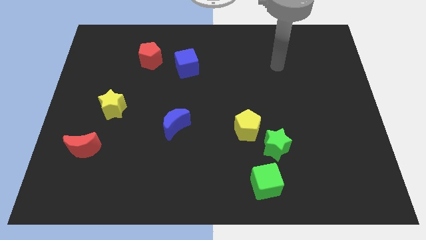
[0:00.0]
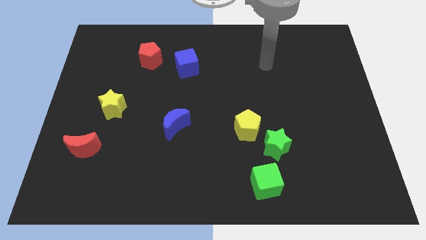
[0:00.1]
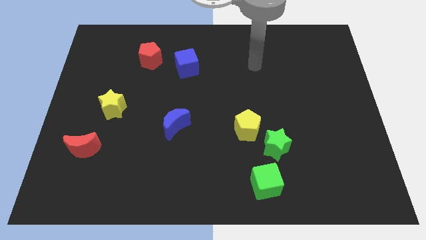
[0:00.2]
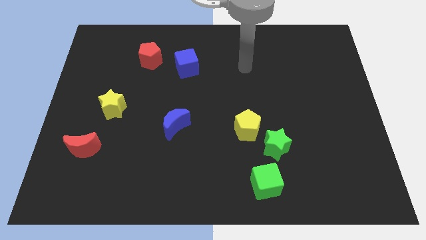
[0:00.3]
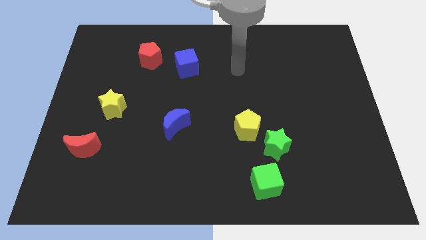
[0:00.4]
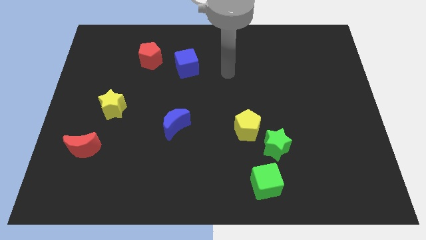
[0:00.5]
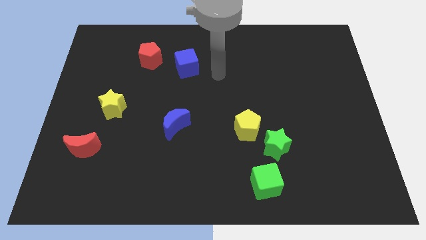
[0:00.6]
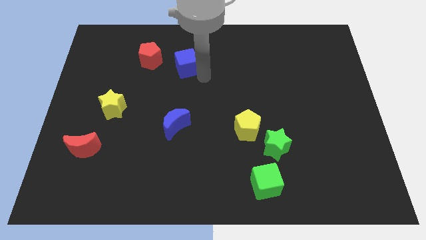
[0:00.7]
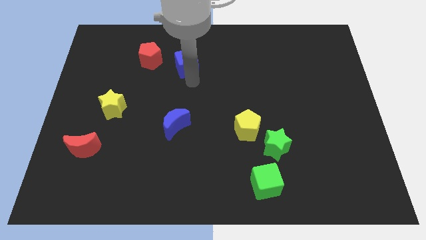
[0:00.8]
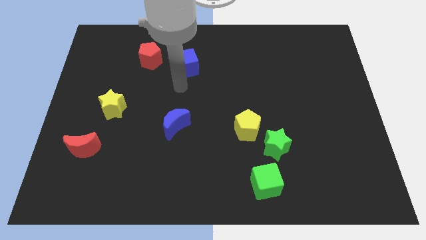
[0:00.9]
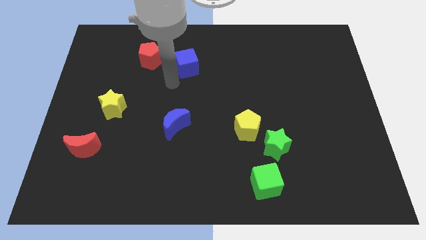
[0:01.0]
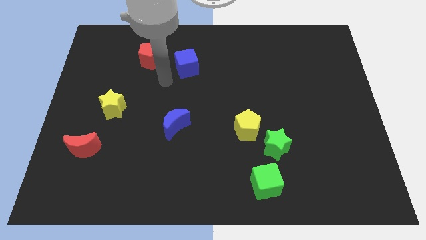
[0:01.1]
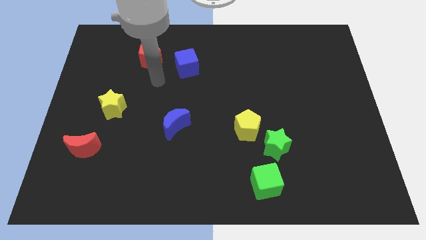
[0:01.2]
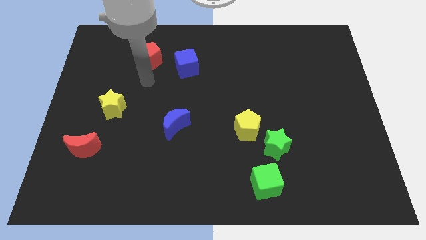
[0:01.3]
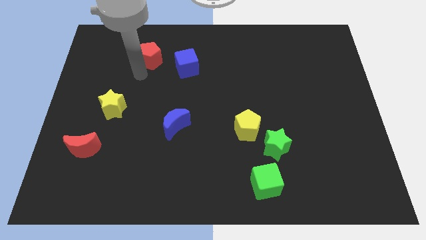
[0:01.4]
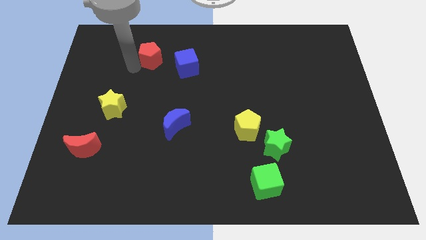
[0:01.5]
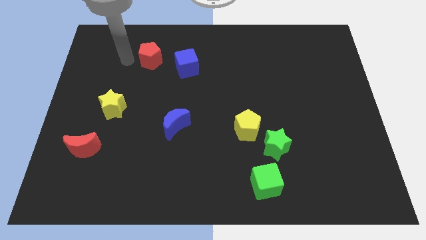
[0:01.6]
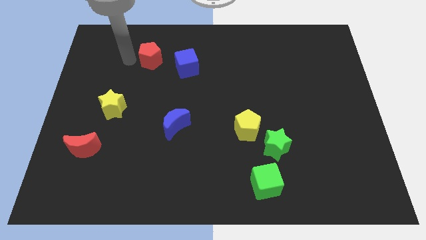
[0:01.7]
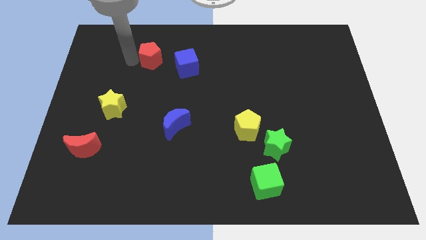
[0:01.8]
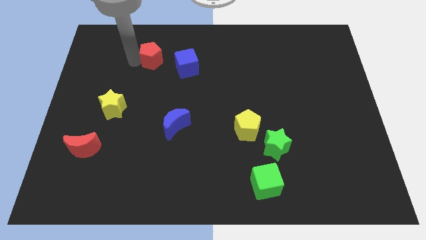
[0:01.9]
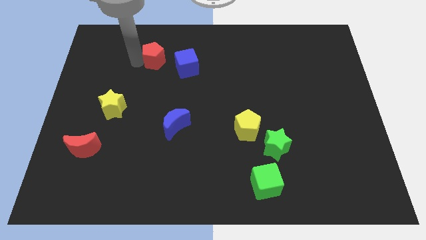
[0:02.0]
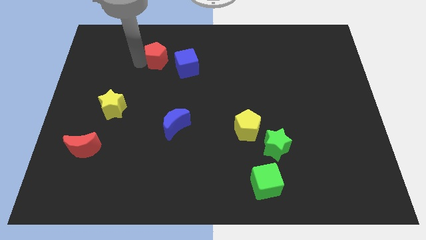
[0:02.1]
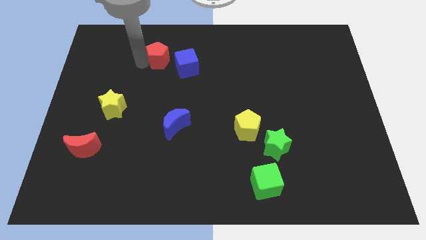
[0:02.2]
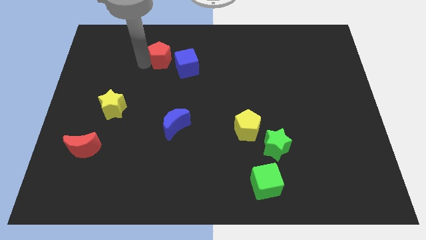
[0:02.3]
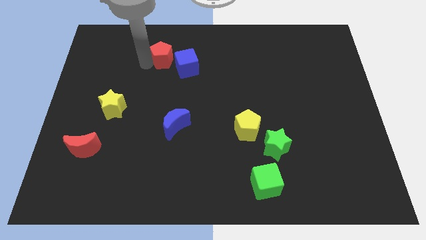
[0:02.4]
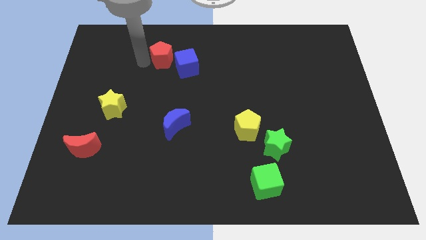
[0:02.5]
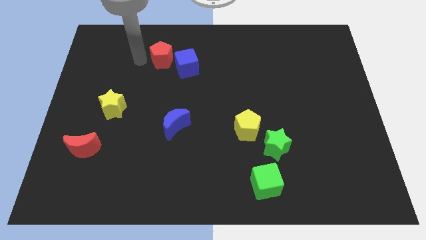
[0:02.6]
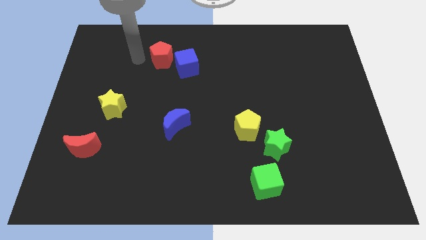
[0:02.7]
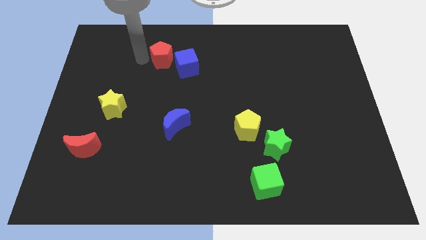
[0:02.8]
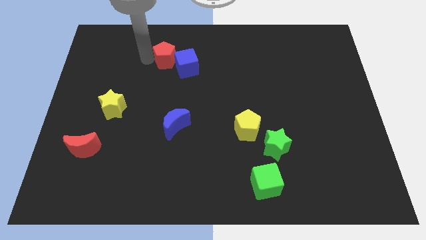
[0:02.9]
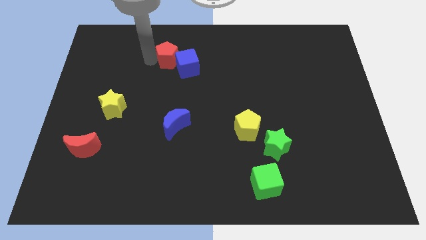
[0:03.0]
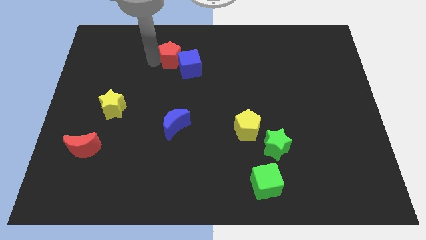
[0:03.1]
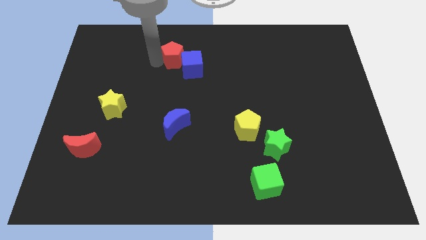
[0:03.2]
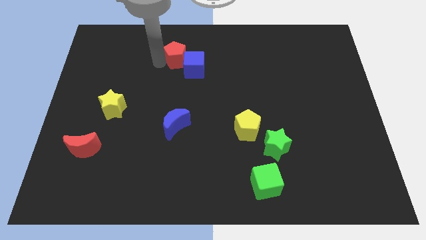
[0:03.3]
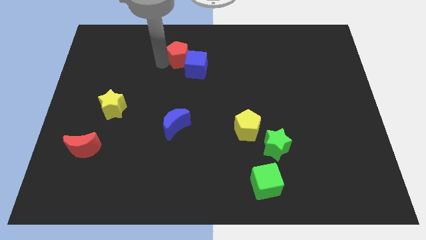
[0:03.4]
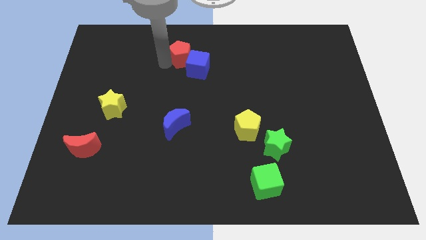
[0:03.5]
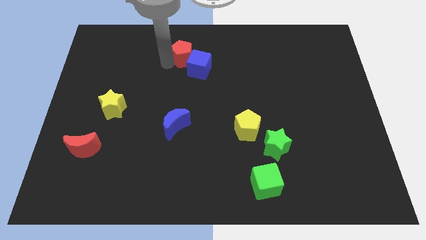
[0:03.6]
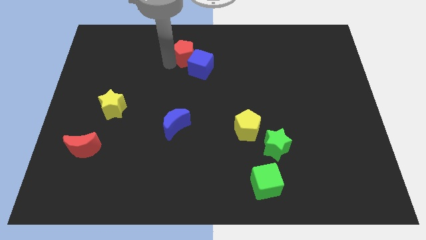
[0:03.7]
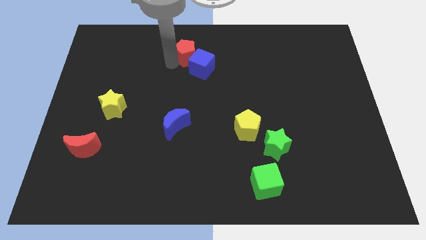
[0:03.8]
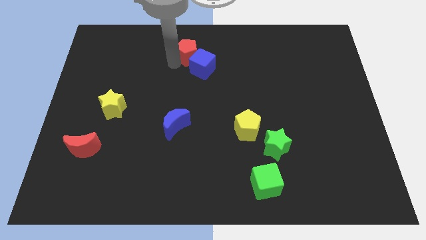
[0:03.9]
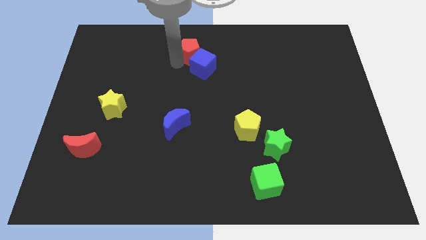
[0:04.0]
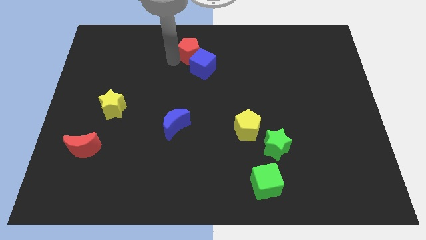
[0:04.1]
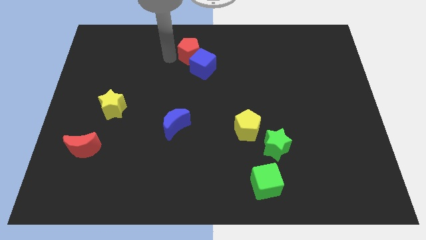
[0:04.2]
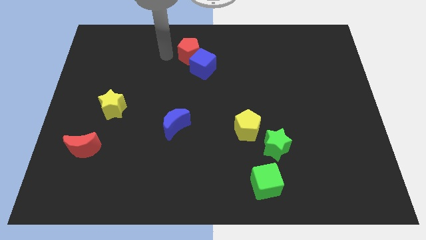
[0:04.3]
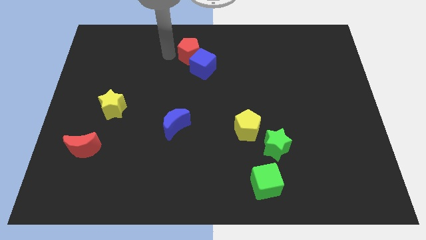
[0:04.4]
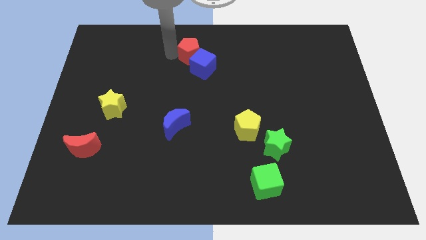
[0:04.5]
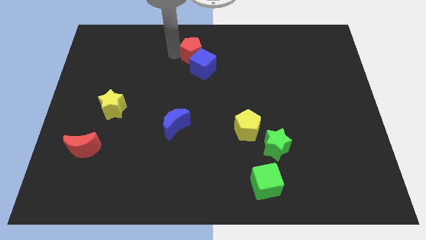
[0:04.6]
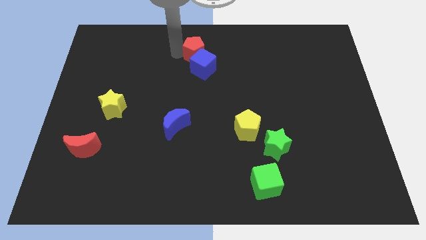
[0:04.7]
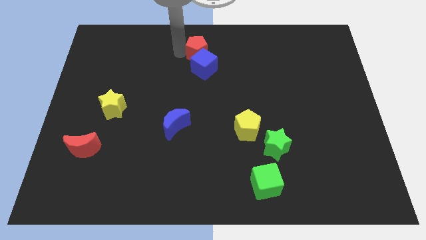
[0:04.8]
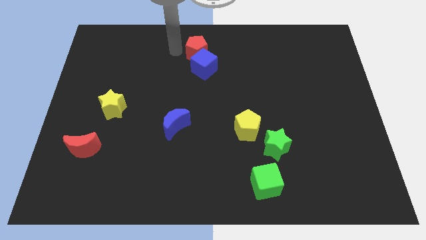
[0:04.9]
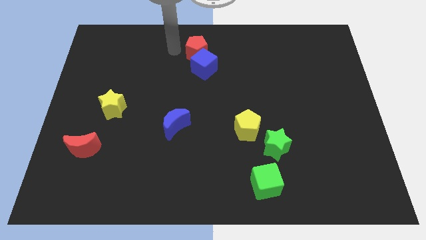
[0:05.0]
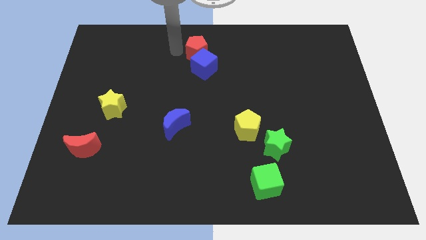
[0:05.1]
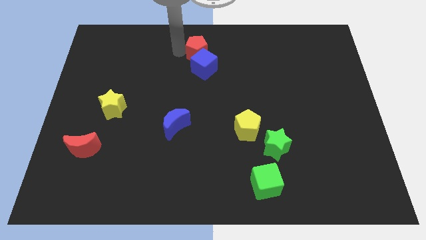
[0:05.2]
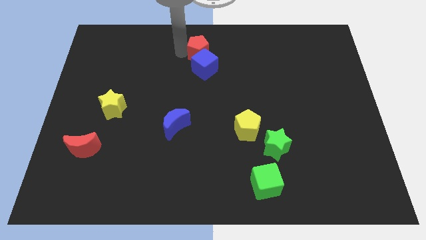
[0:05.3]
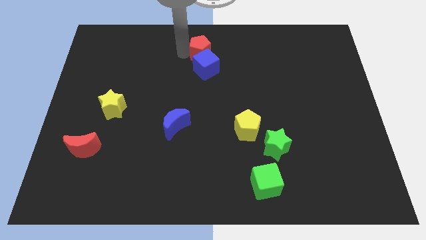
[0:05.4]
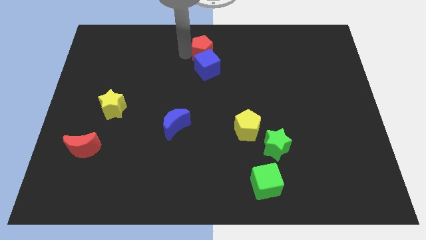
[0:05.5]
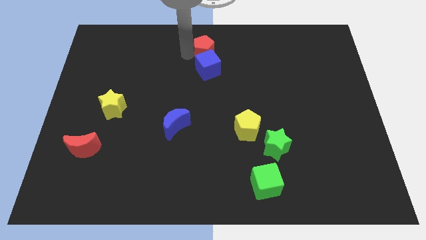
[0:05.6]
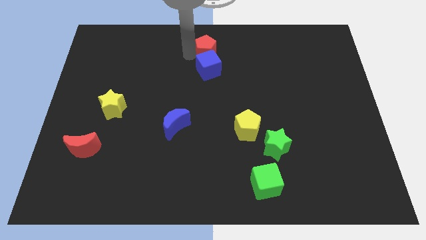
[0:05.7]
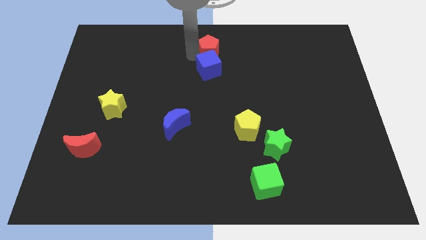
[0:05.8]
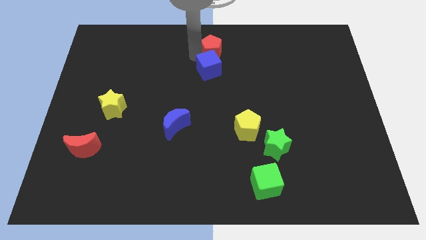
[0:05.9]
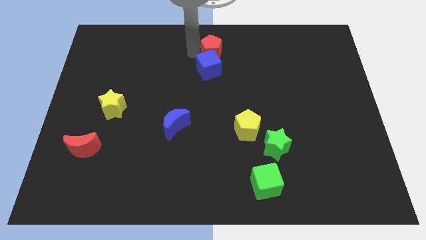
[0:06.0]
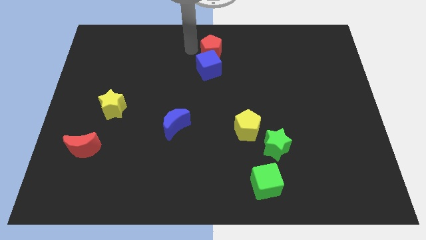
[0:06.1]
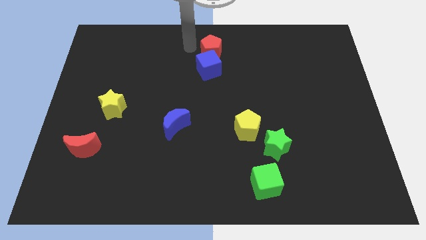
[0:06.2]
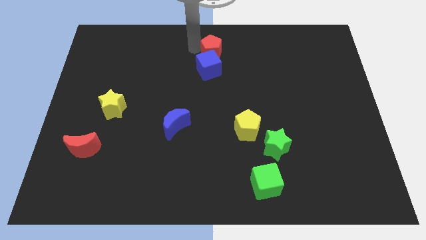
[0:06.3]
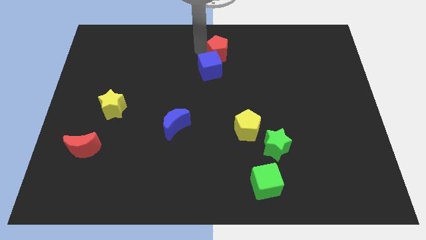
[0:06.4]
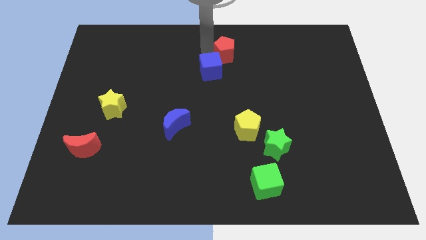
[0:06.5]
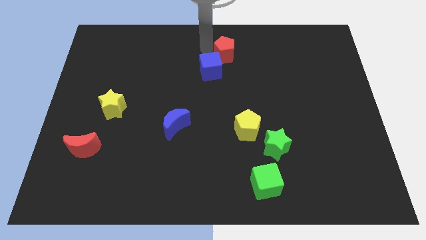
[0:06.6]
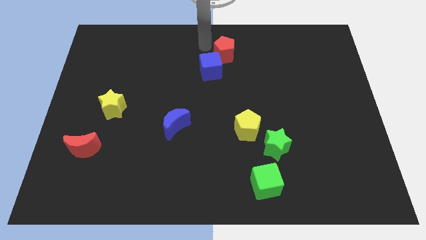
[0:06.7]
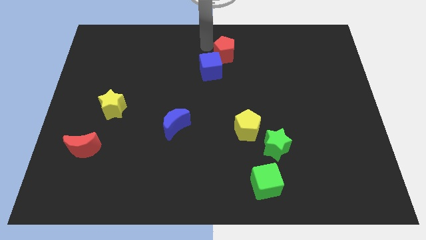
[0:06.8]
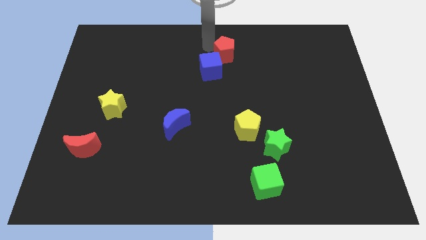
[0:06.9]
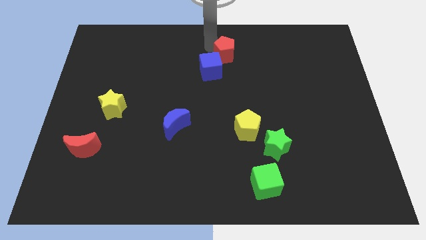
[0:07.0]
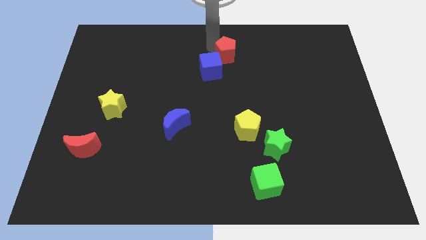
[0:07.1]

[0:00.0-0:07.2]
slide the red pentagon right

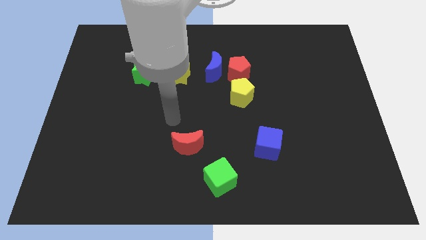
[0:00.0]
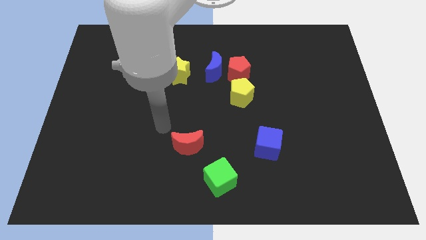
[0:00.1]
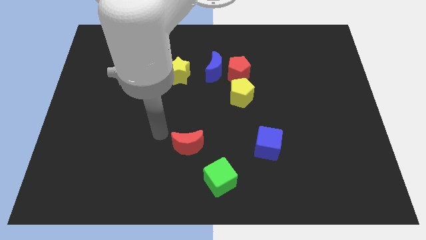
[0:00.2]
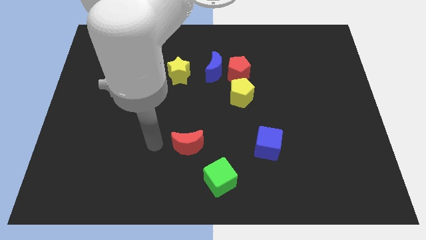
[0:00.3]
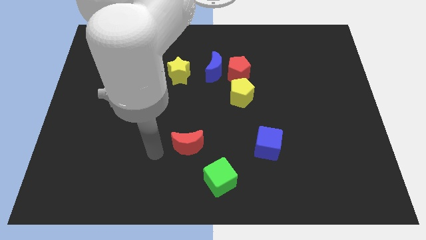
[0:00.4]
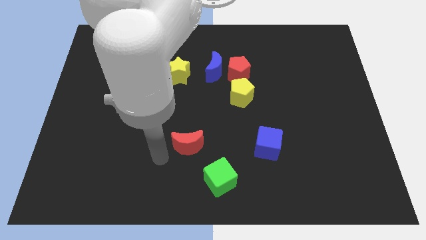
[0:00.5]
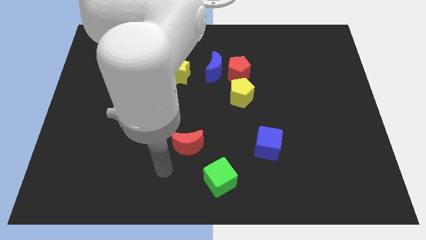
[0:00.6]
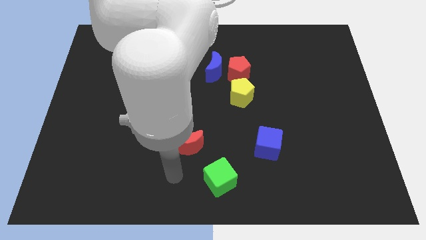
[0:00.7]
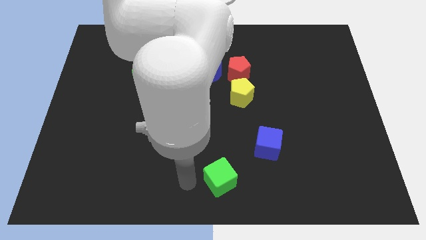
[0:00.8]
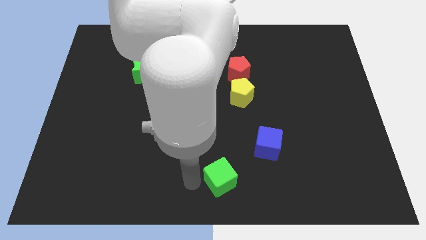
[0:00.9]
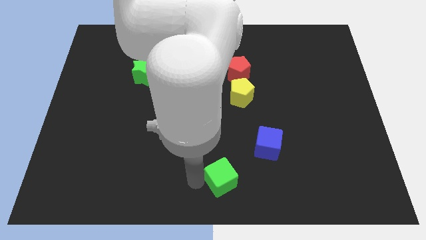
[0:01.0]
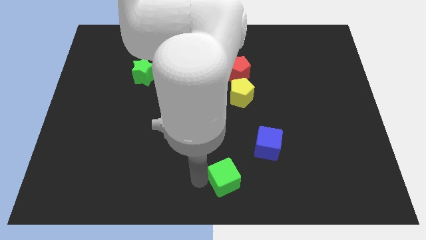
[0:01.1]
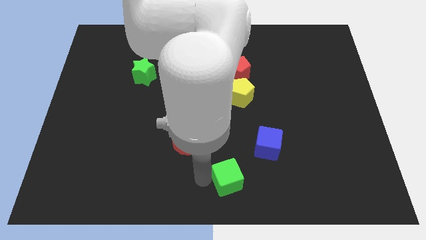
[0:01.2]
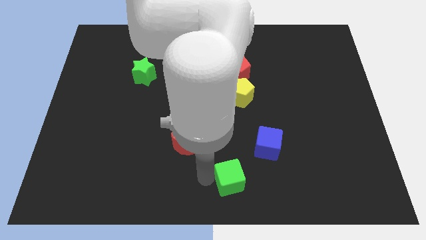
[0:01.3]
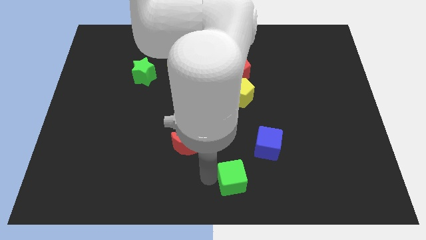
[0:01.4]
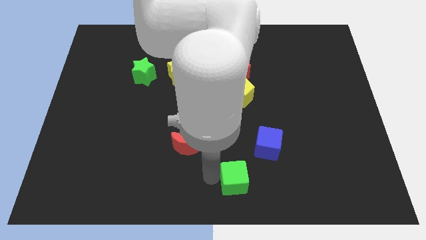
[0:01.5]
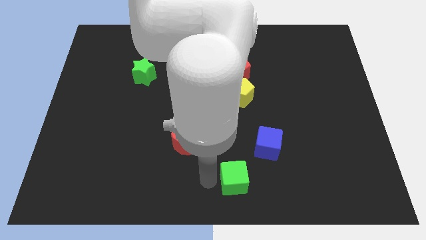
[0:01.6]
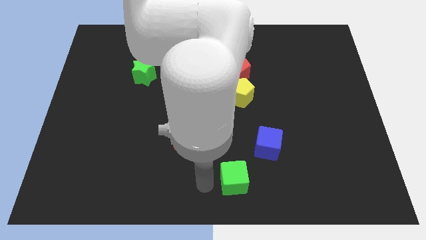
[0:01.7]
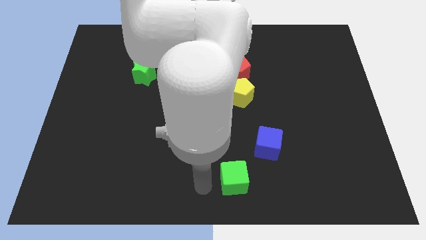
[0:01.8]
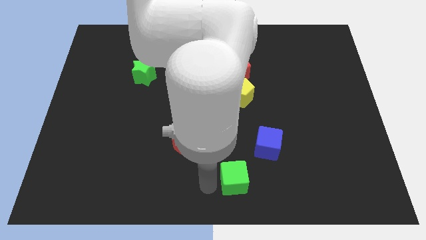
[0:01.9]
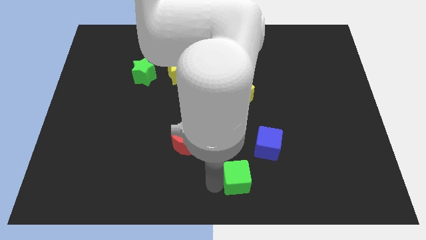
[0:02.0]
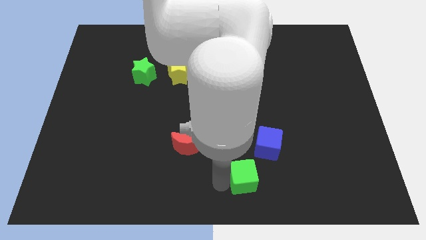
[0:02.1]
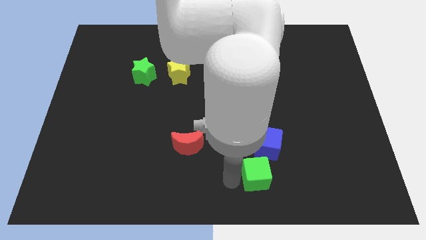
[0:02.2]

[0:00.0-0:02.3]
slightly move the green cube right
